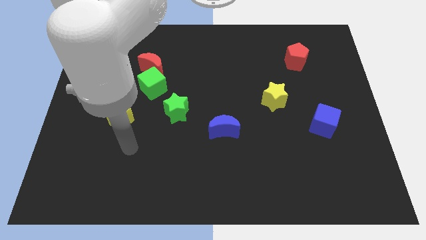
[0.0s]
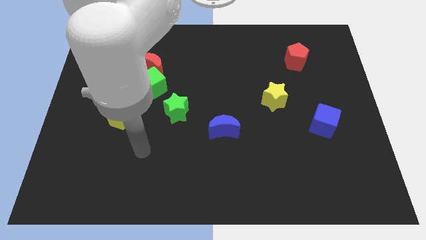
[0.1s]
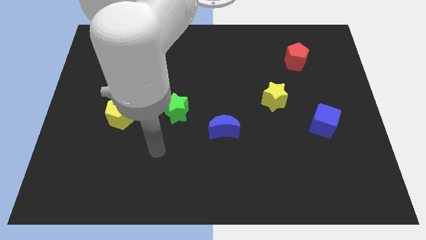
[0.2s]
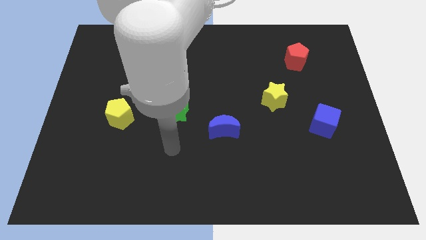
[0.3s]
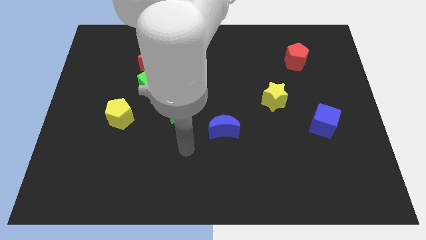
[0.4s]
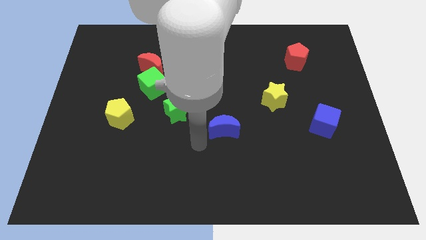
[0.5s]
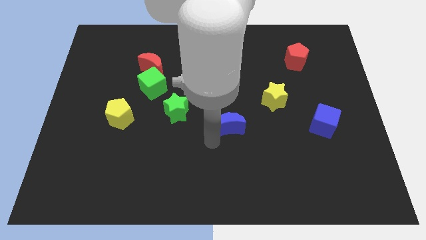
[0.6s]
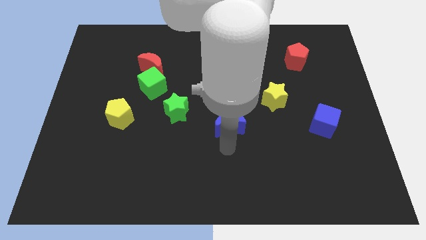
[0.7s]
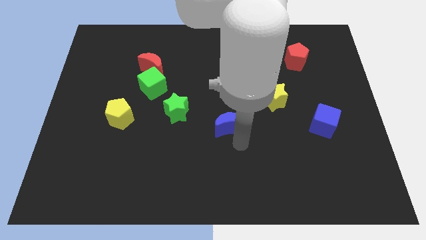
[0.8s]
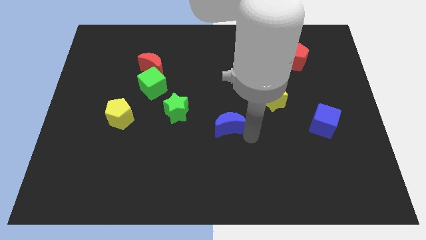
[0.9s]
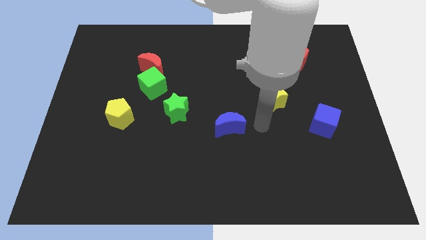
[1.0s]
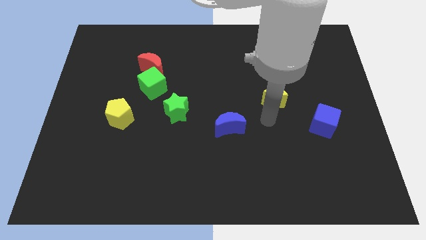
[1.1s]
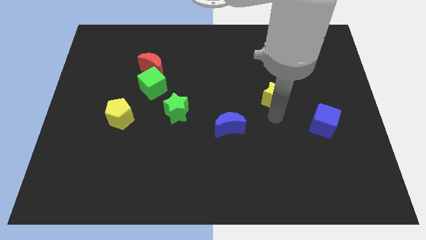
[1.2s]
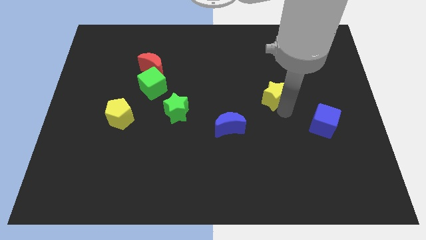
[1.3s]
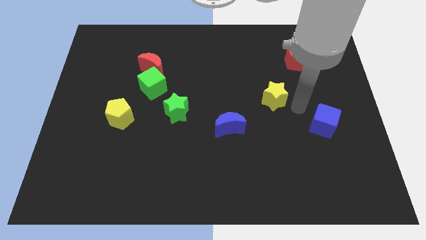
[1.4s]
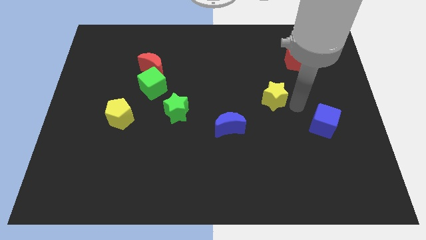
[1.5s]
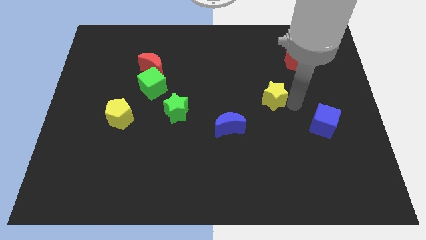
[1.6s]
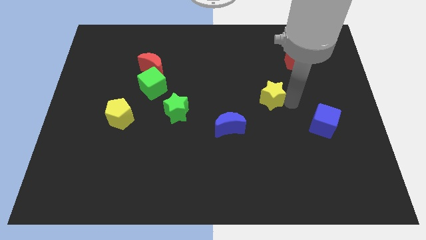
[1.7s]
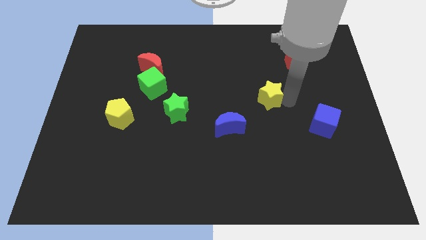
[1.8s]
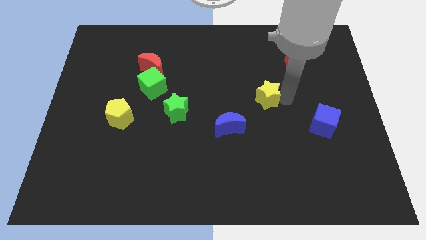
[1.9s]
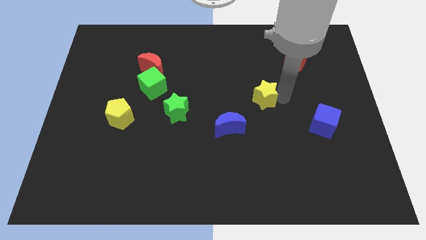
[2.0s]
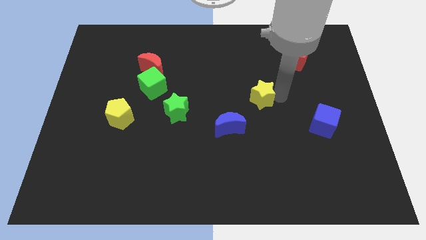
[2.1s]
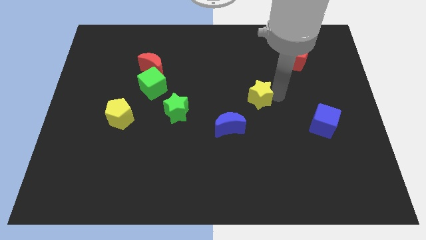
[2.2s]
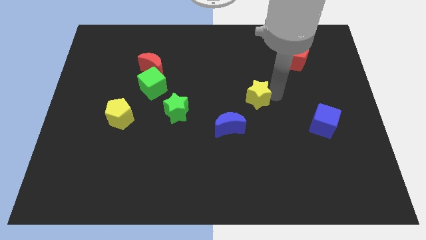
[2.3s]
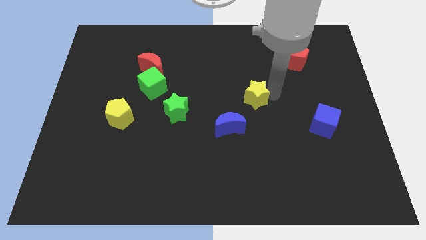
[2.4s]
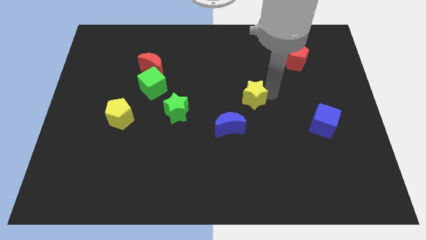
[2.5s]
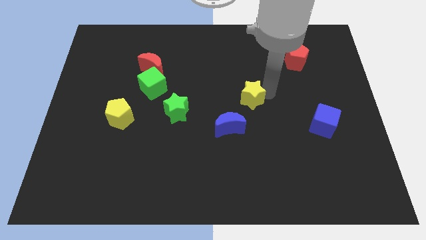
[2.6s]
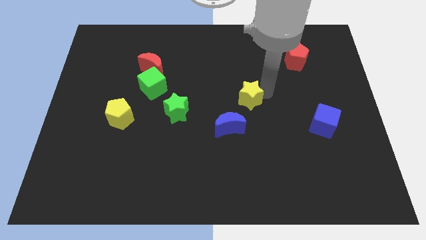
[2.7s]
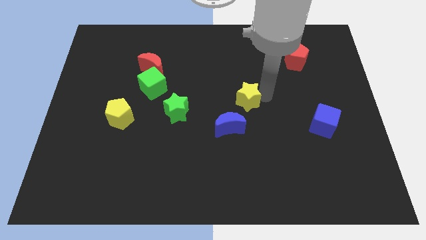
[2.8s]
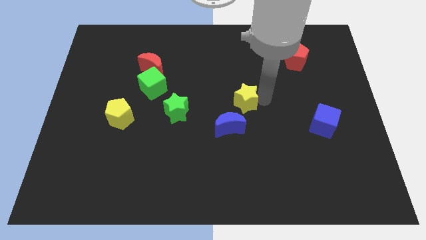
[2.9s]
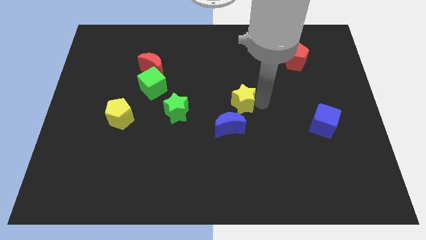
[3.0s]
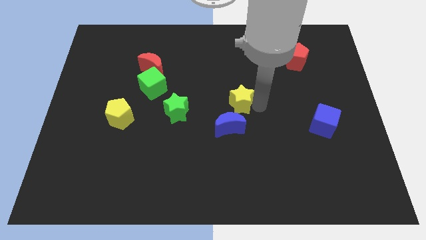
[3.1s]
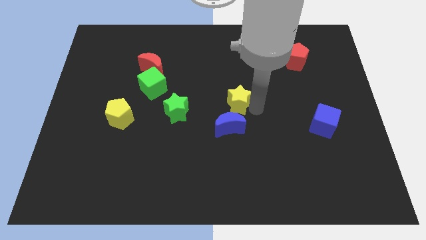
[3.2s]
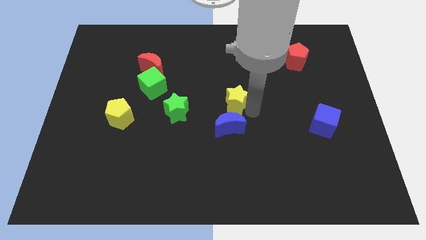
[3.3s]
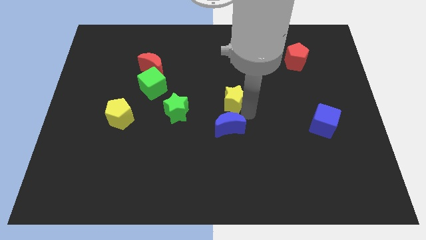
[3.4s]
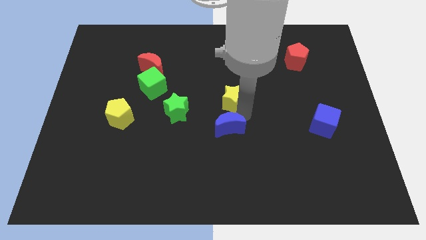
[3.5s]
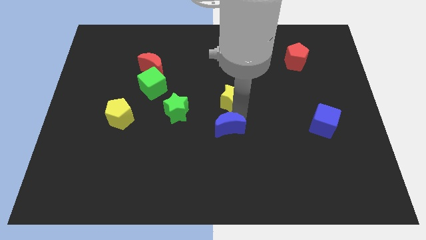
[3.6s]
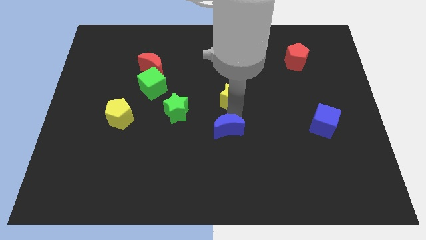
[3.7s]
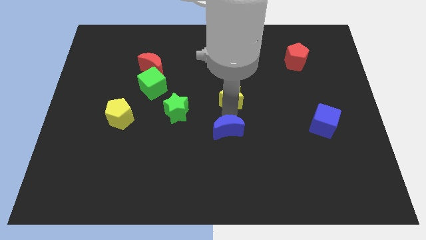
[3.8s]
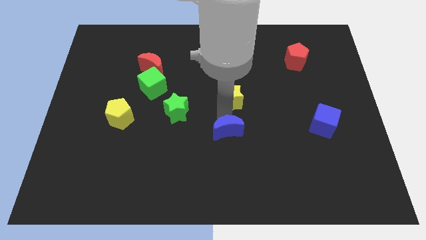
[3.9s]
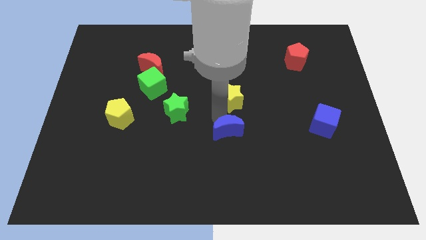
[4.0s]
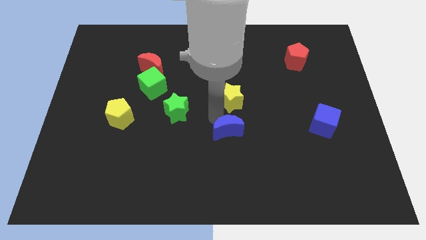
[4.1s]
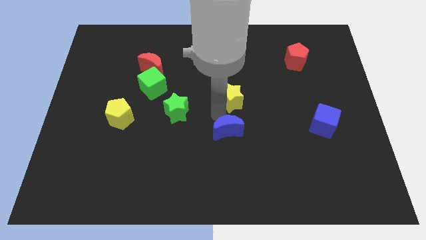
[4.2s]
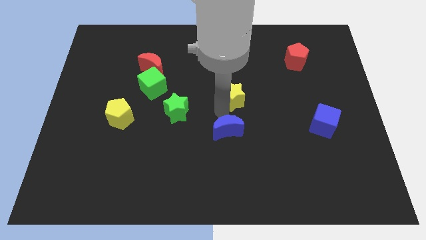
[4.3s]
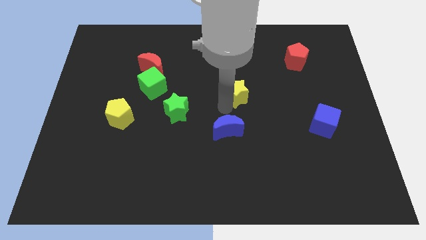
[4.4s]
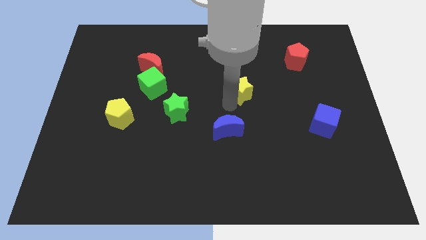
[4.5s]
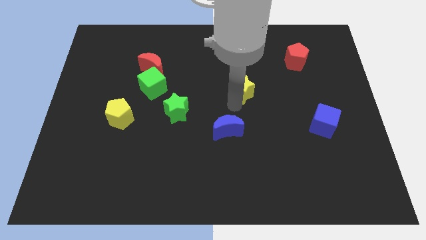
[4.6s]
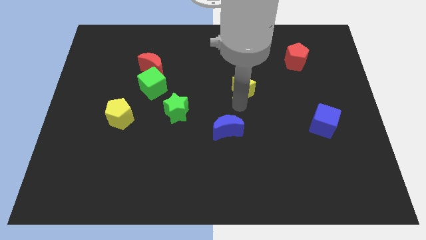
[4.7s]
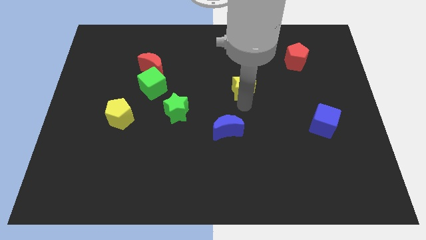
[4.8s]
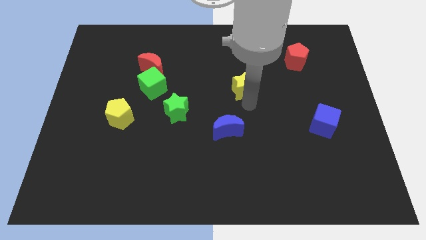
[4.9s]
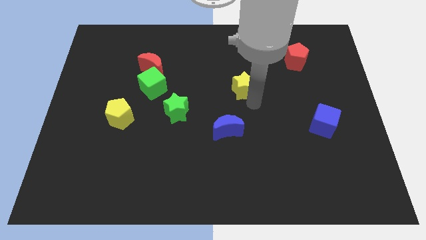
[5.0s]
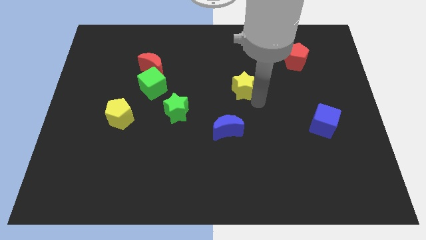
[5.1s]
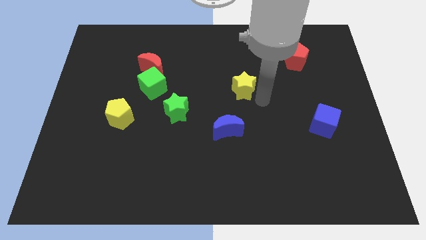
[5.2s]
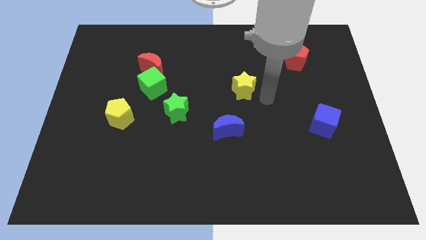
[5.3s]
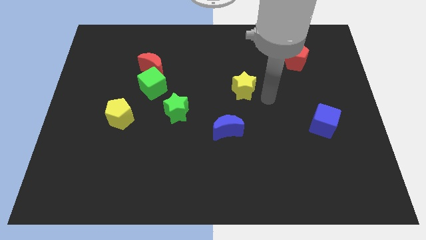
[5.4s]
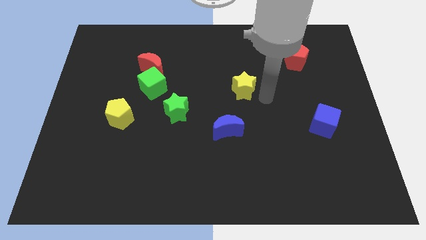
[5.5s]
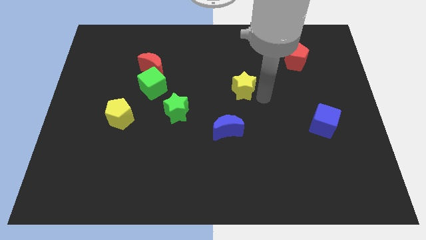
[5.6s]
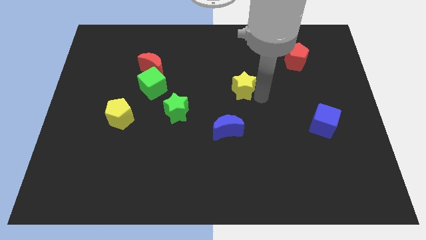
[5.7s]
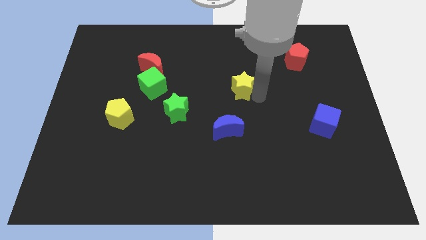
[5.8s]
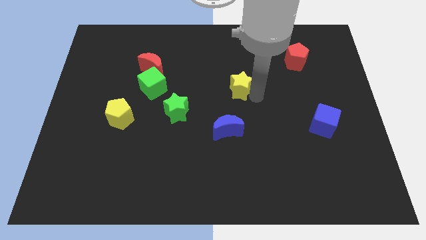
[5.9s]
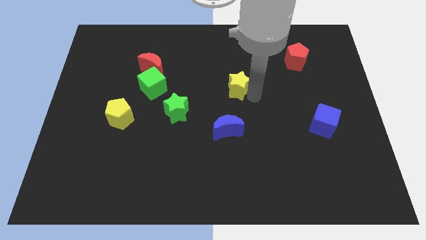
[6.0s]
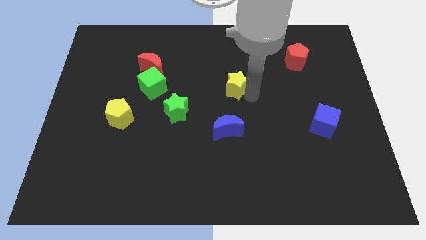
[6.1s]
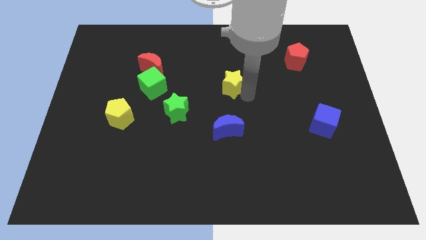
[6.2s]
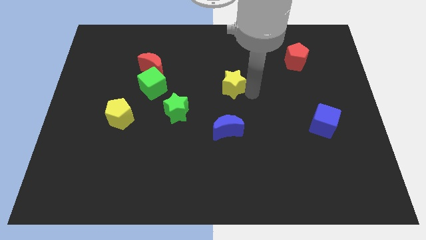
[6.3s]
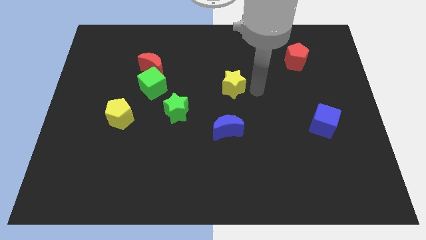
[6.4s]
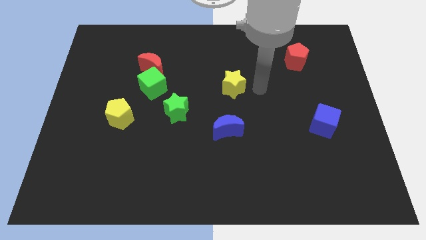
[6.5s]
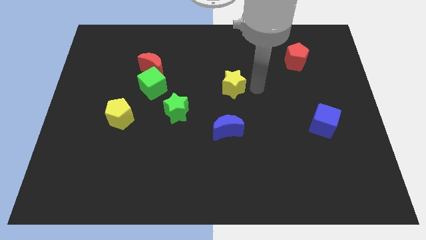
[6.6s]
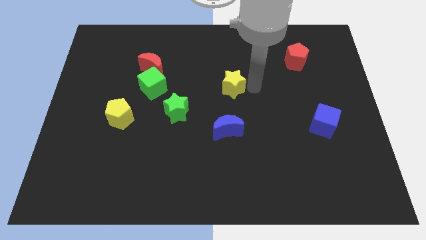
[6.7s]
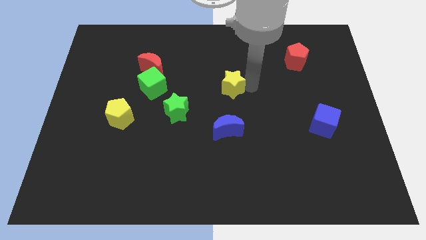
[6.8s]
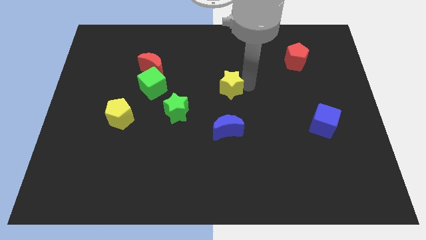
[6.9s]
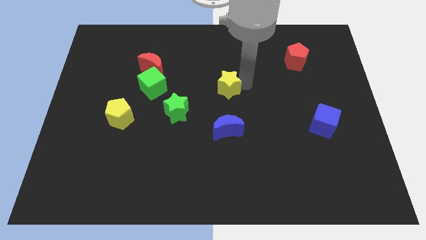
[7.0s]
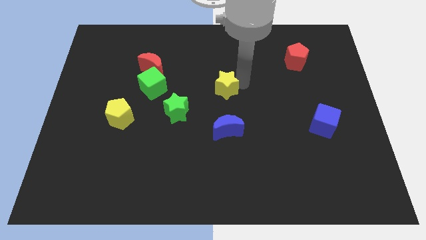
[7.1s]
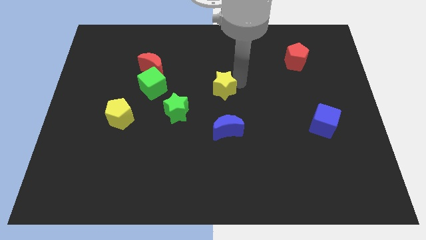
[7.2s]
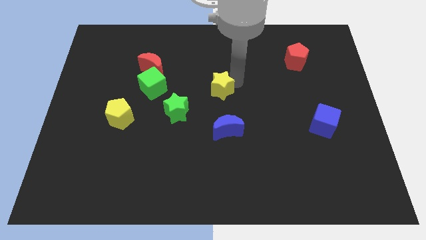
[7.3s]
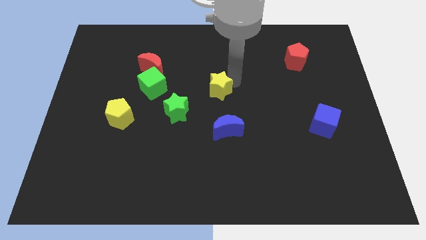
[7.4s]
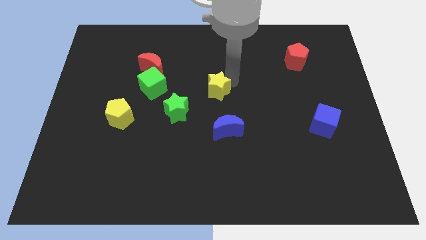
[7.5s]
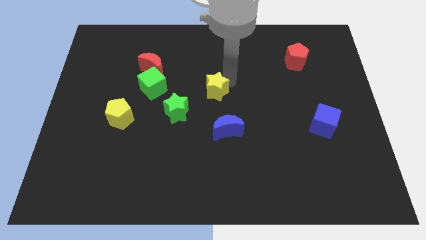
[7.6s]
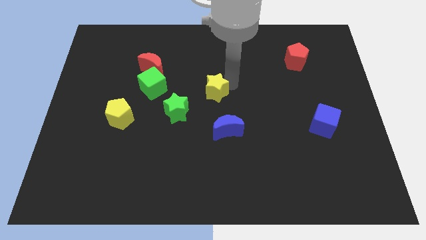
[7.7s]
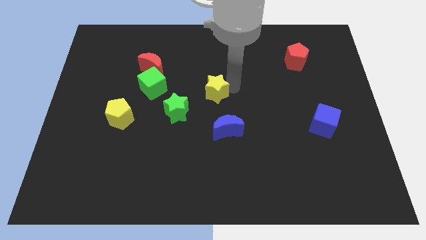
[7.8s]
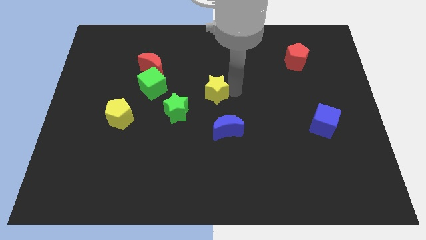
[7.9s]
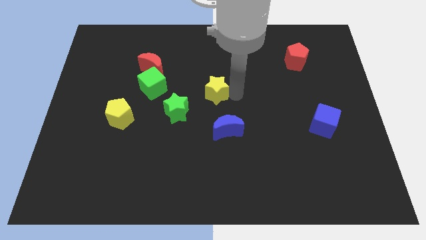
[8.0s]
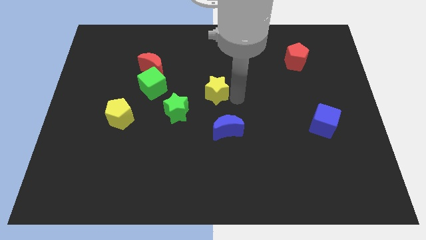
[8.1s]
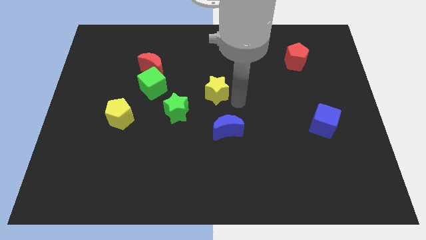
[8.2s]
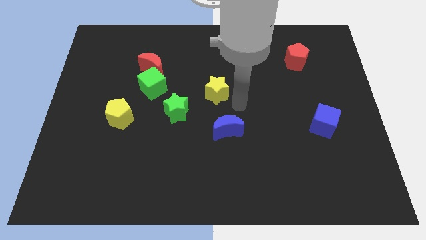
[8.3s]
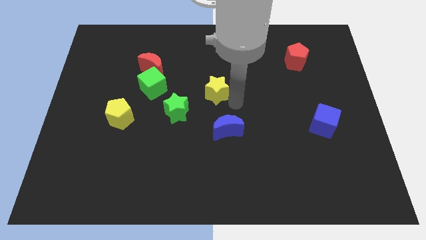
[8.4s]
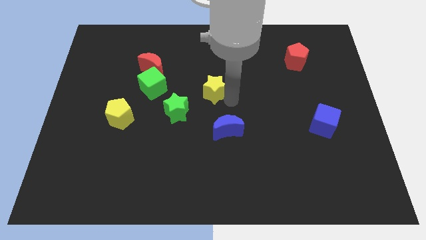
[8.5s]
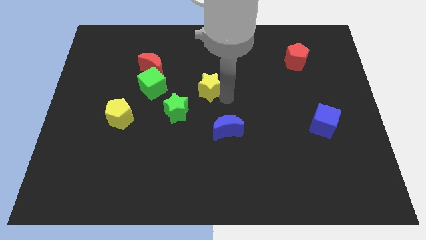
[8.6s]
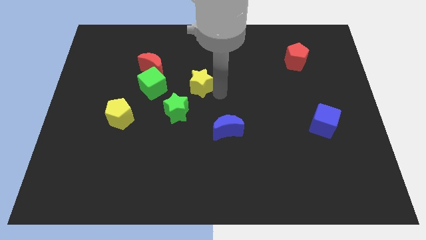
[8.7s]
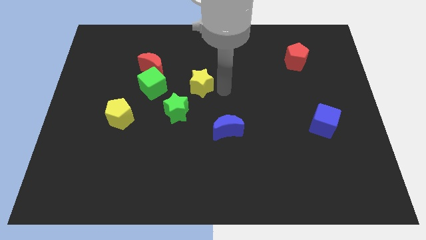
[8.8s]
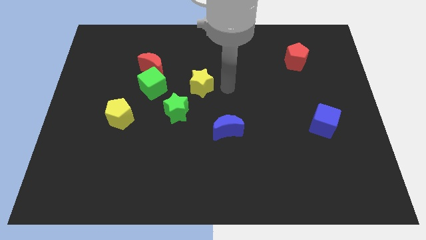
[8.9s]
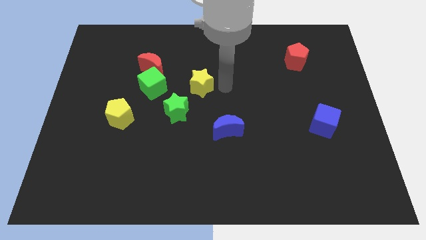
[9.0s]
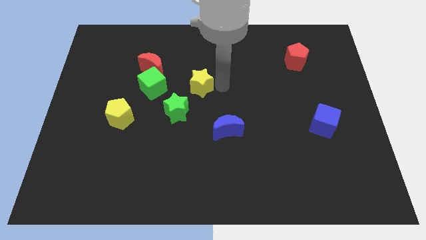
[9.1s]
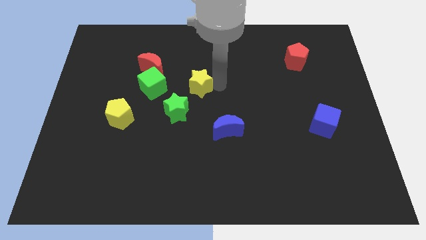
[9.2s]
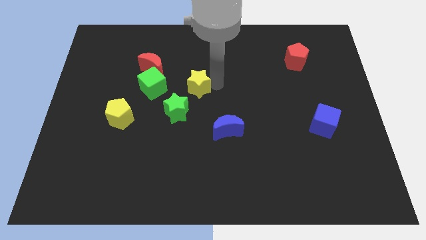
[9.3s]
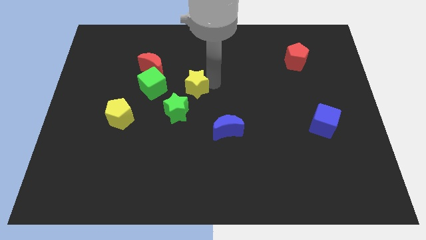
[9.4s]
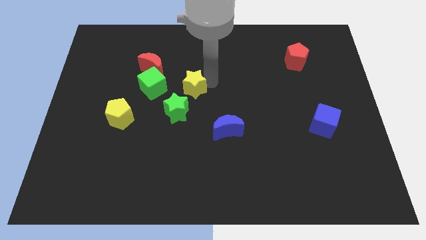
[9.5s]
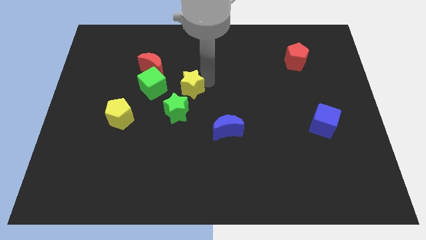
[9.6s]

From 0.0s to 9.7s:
push the yellow star diagonally down and to the right of the red moon
